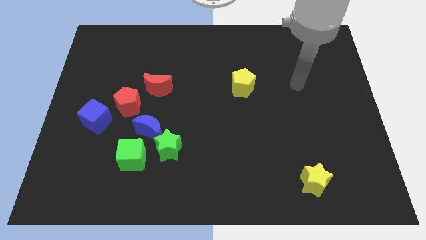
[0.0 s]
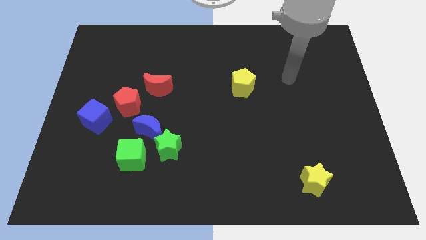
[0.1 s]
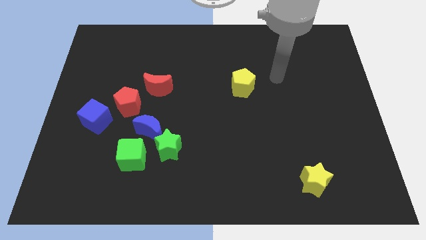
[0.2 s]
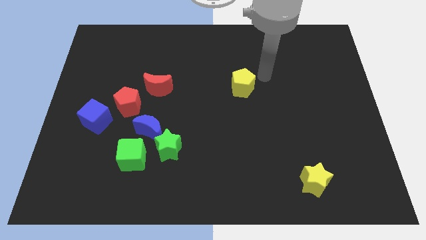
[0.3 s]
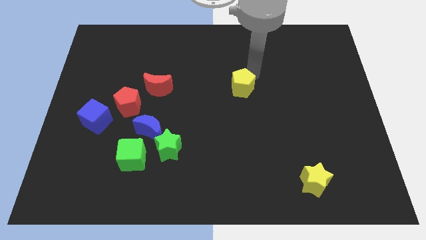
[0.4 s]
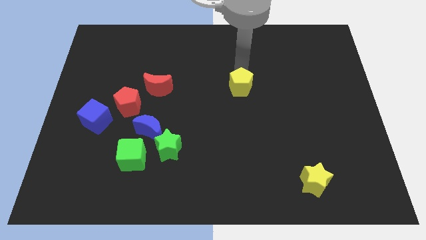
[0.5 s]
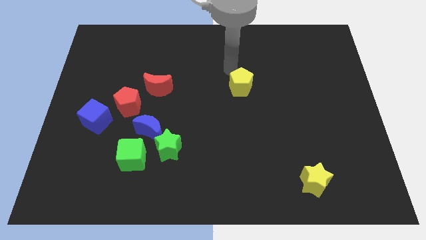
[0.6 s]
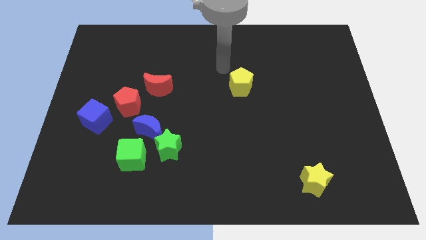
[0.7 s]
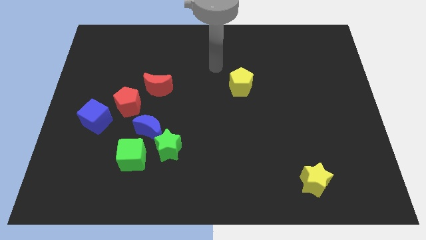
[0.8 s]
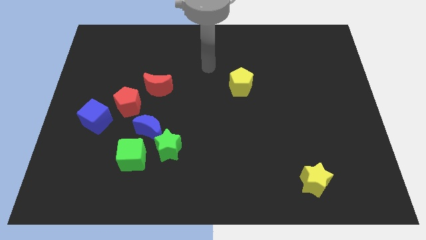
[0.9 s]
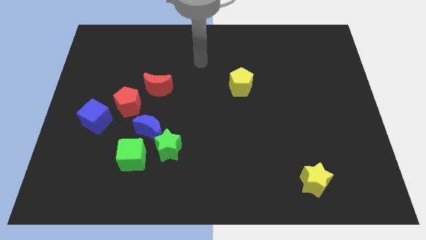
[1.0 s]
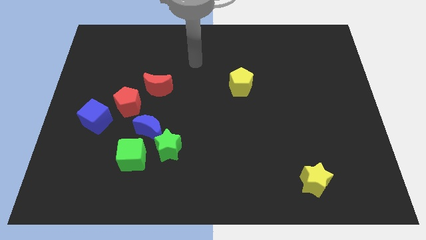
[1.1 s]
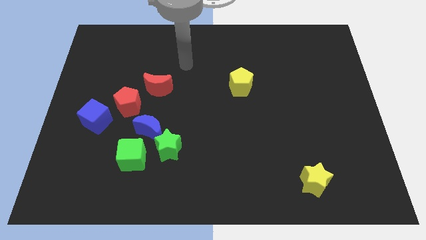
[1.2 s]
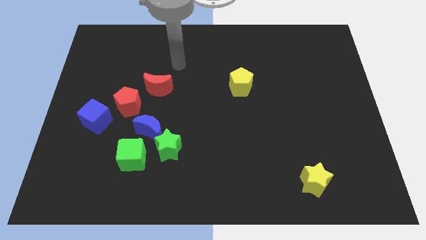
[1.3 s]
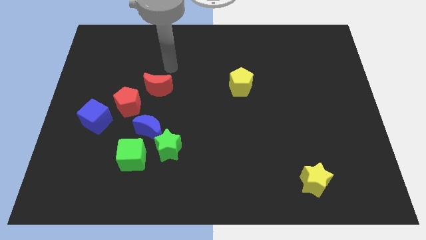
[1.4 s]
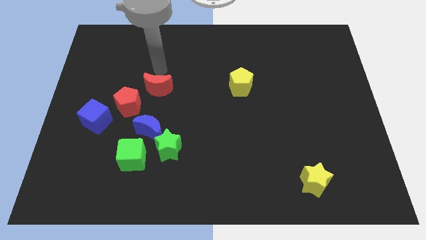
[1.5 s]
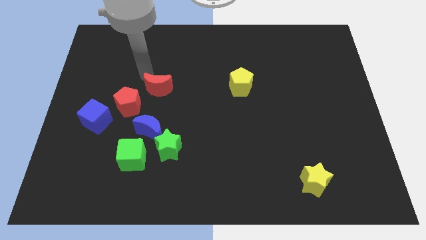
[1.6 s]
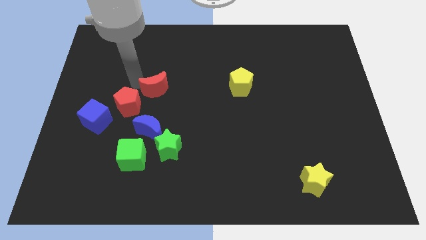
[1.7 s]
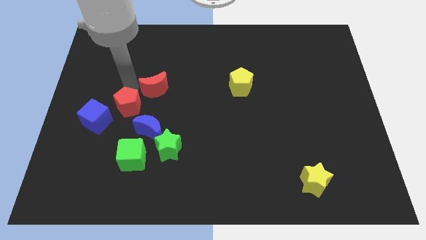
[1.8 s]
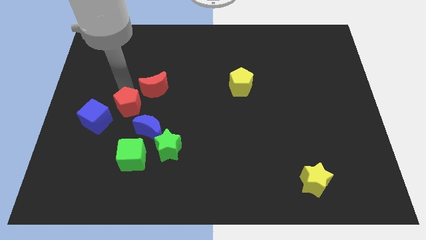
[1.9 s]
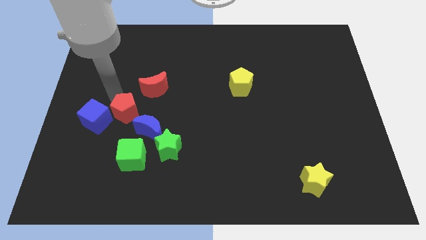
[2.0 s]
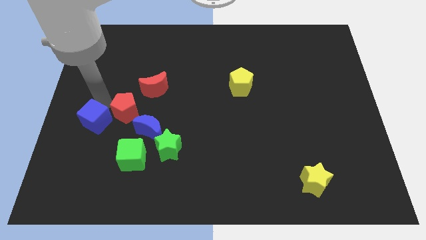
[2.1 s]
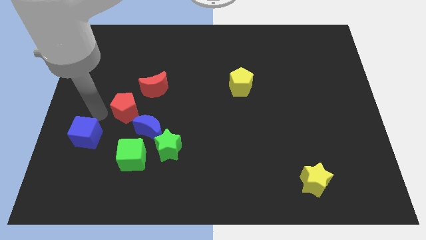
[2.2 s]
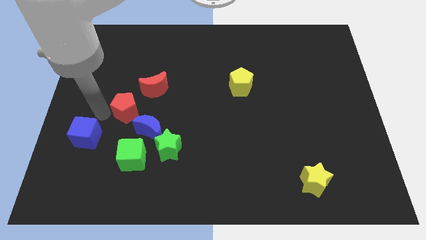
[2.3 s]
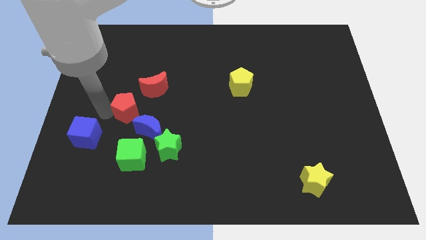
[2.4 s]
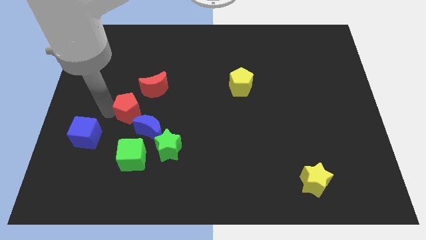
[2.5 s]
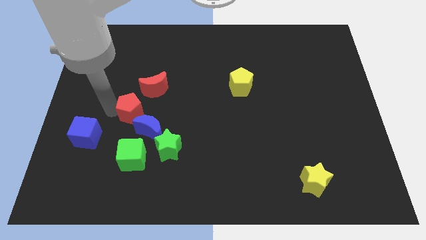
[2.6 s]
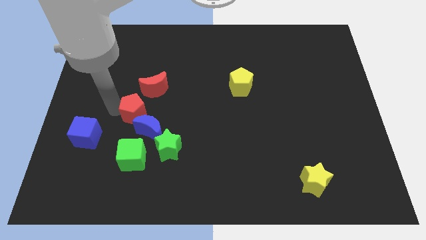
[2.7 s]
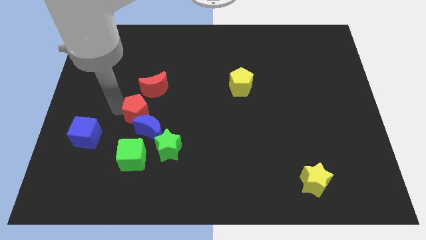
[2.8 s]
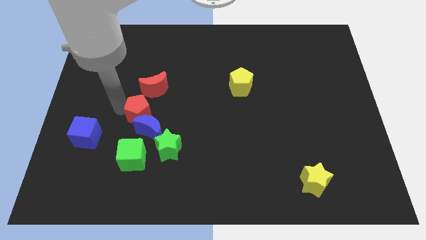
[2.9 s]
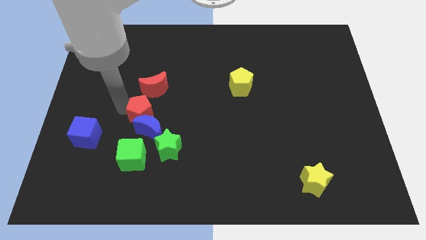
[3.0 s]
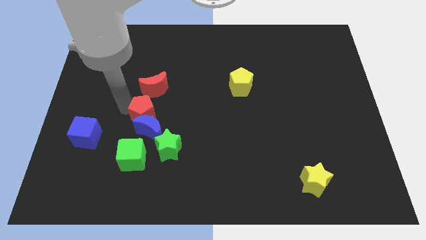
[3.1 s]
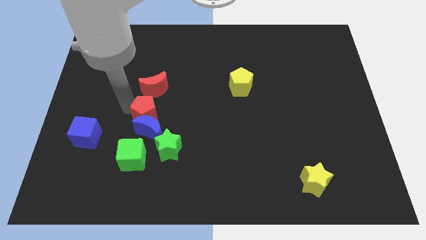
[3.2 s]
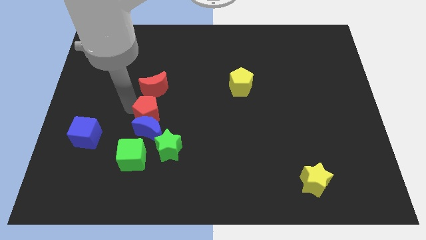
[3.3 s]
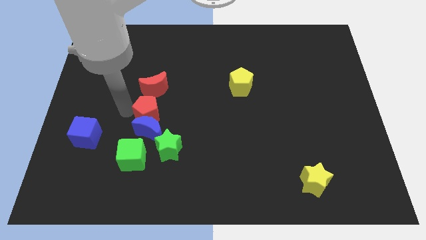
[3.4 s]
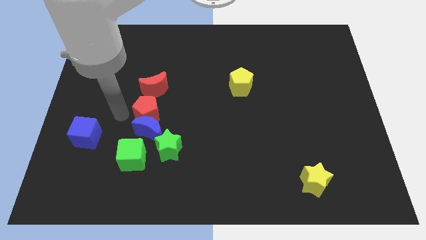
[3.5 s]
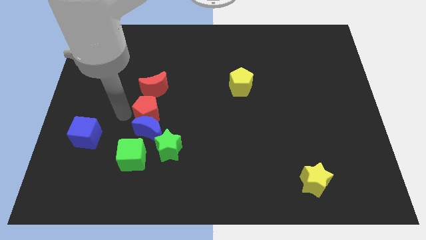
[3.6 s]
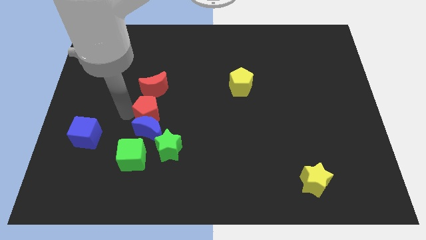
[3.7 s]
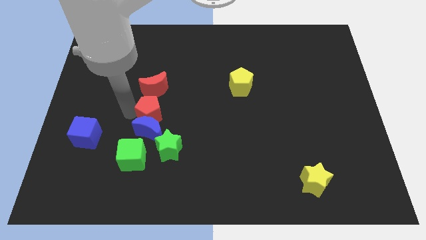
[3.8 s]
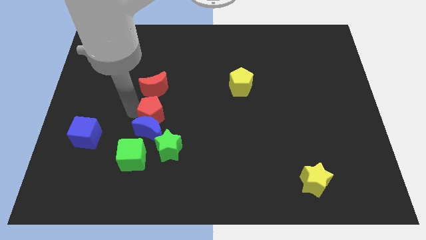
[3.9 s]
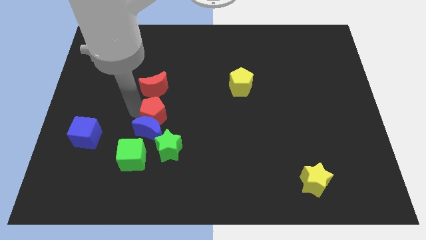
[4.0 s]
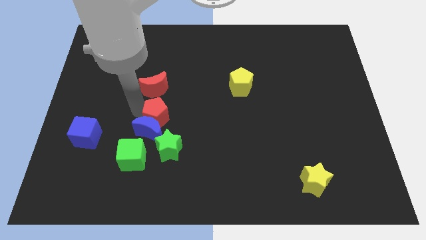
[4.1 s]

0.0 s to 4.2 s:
push the red pentagon a bit down and to the right

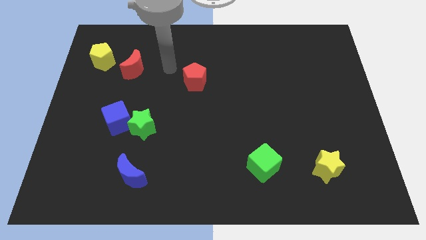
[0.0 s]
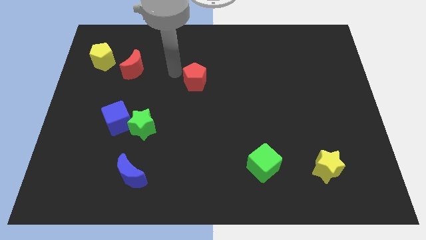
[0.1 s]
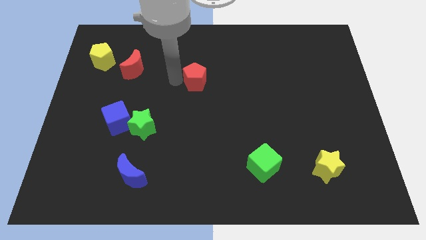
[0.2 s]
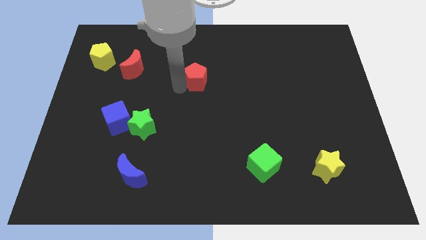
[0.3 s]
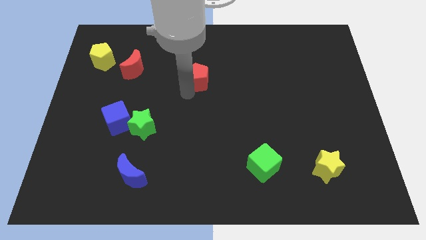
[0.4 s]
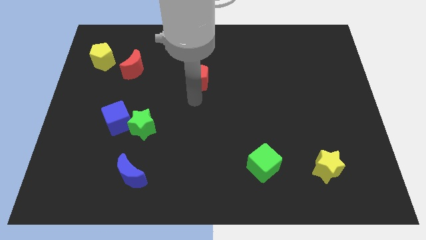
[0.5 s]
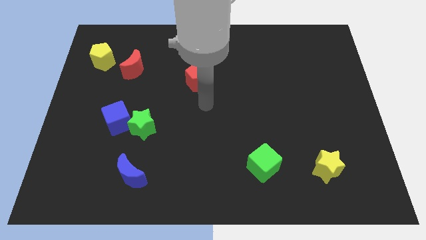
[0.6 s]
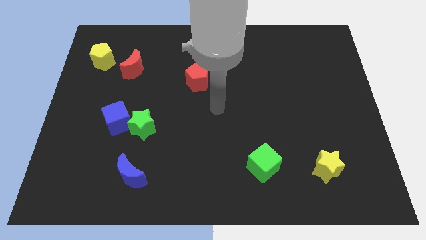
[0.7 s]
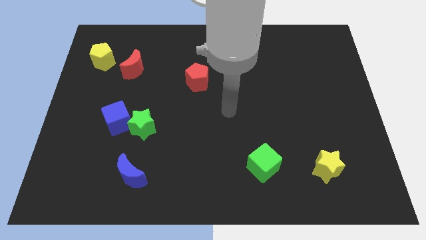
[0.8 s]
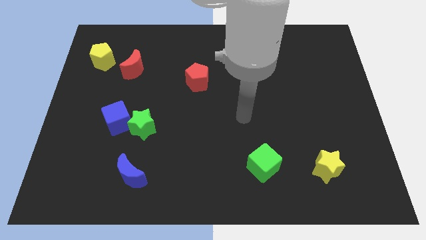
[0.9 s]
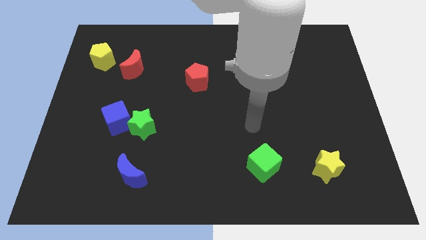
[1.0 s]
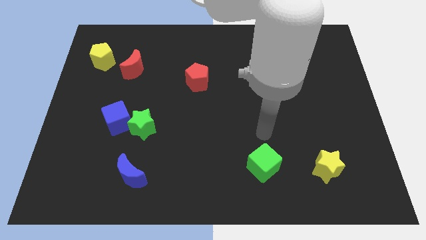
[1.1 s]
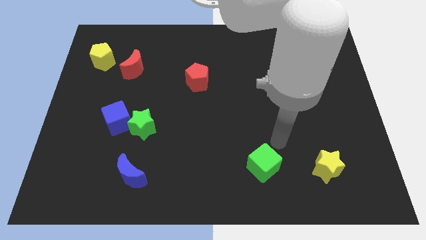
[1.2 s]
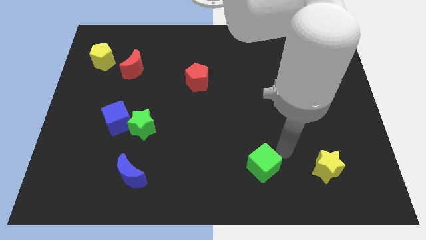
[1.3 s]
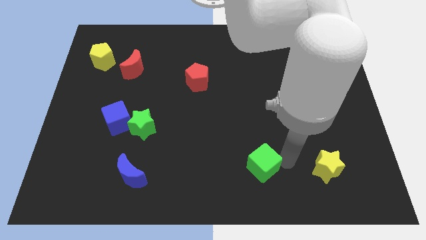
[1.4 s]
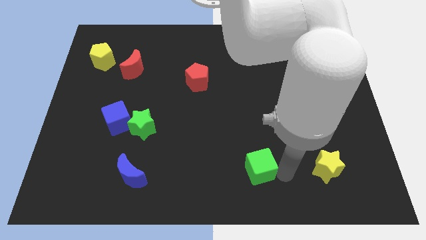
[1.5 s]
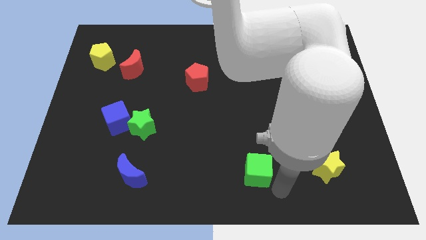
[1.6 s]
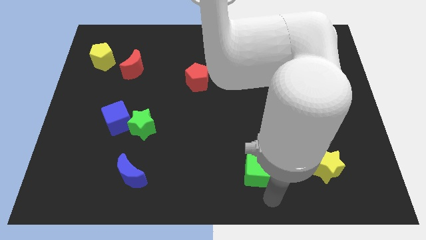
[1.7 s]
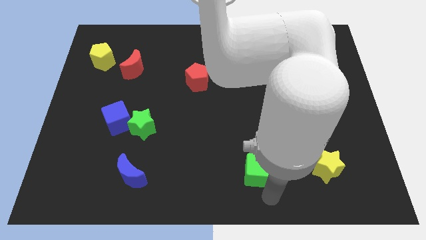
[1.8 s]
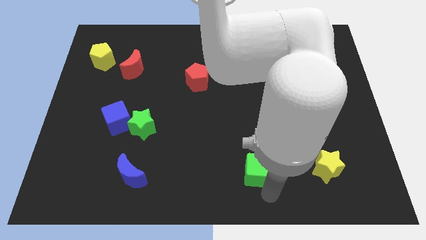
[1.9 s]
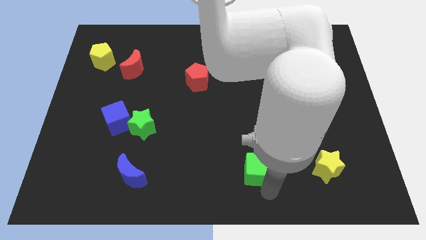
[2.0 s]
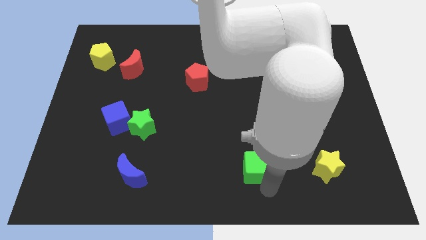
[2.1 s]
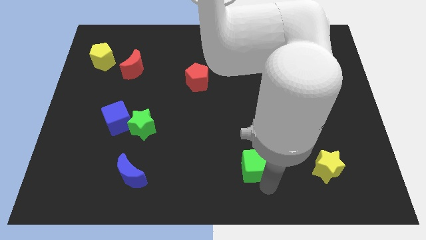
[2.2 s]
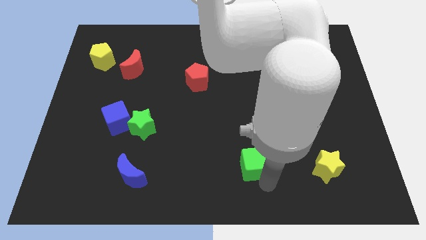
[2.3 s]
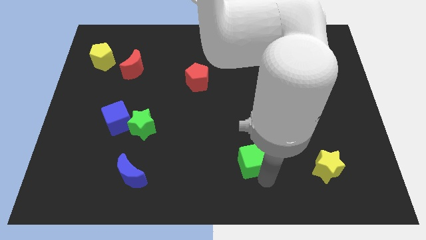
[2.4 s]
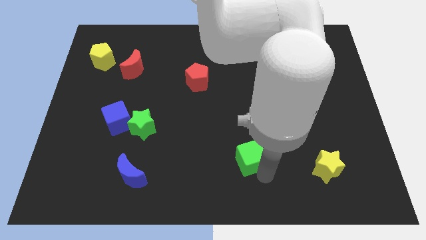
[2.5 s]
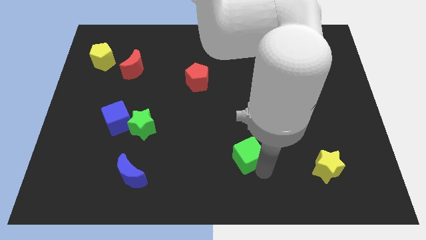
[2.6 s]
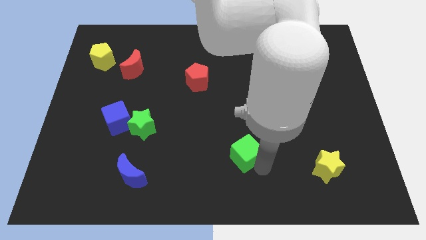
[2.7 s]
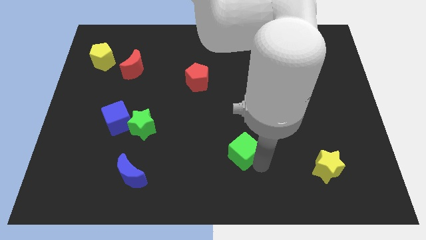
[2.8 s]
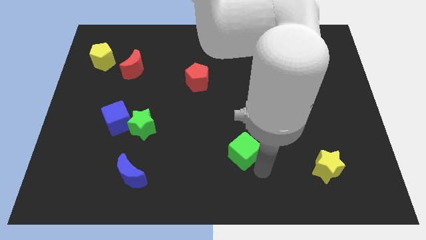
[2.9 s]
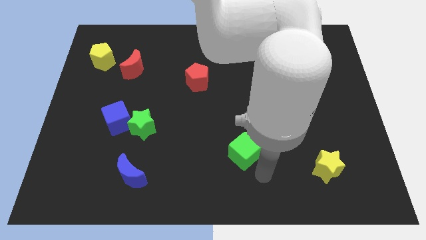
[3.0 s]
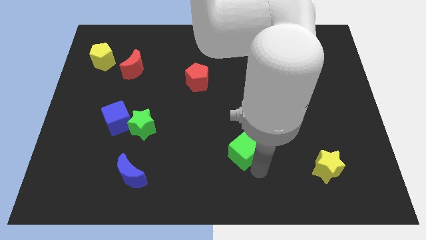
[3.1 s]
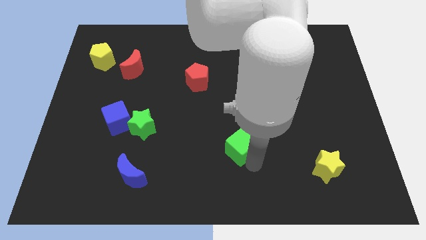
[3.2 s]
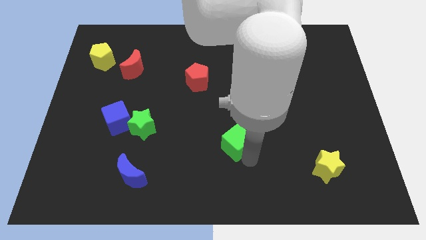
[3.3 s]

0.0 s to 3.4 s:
slightly move the green cube upwards and left diagonally

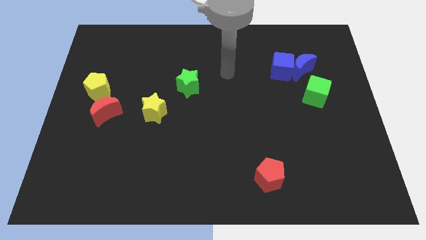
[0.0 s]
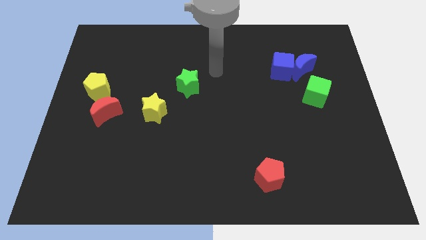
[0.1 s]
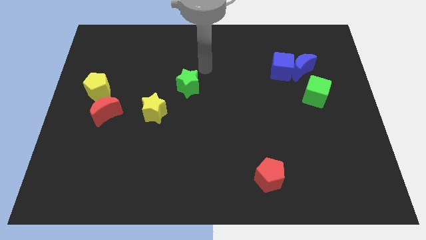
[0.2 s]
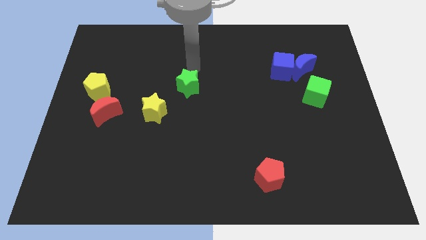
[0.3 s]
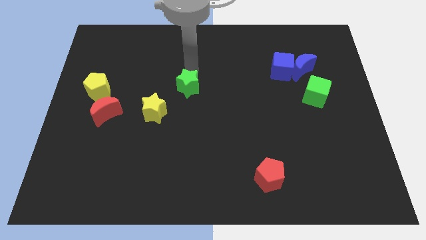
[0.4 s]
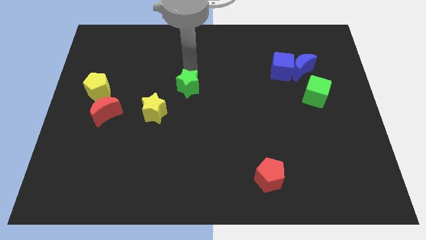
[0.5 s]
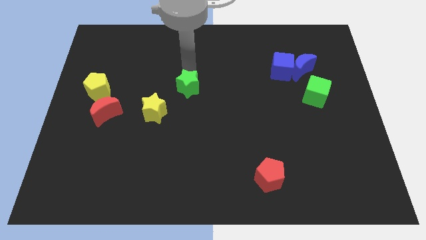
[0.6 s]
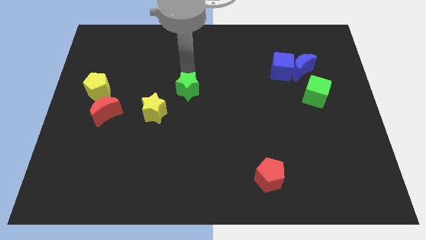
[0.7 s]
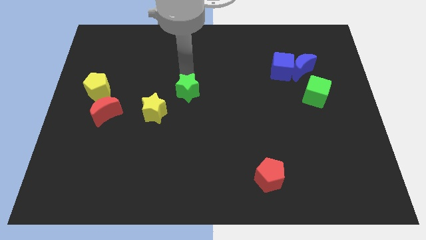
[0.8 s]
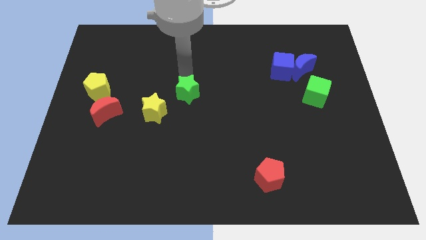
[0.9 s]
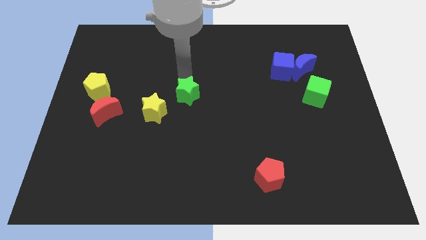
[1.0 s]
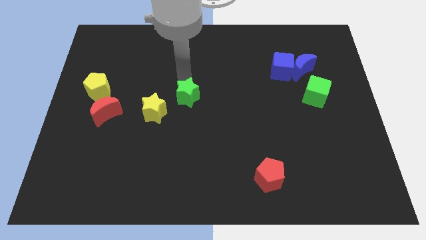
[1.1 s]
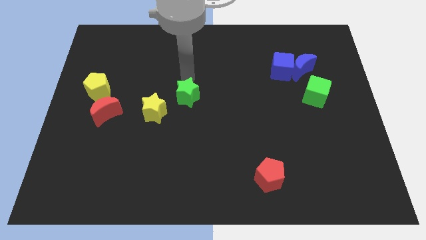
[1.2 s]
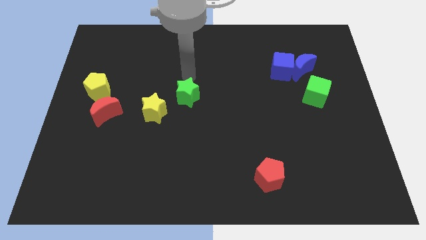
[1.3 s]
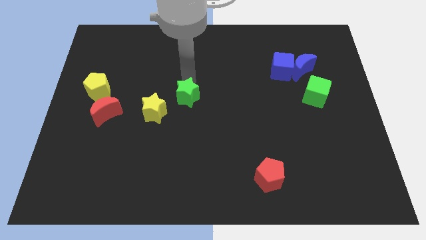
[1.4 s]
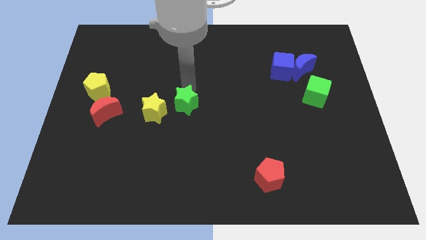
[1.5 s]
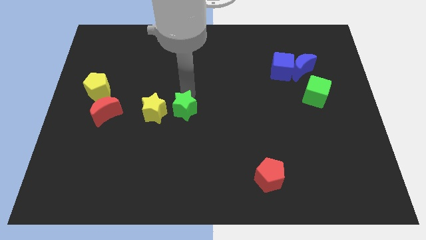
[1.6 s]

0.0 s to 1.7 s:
slide the green star down somewhat
